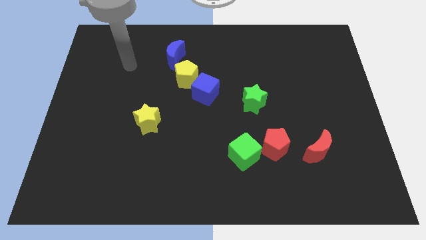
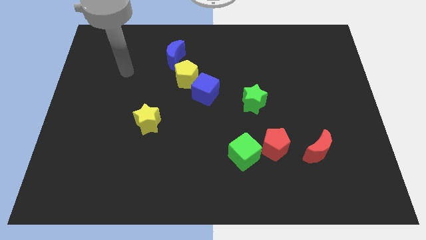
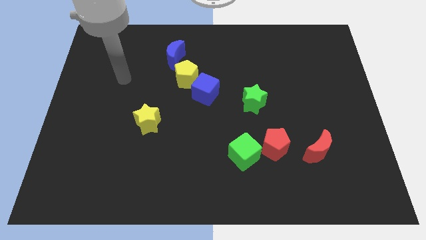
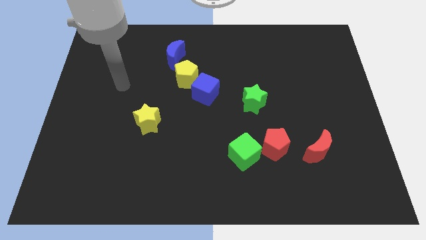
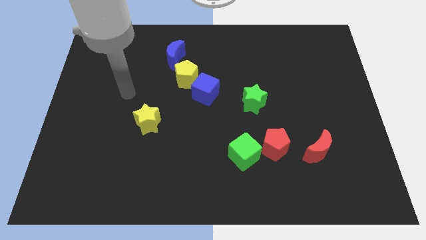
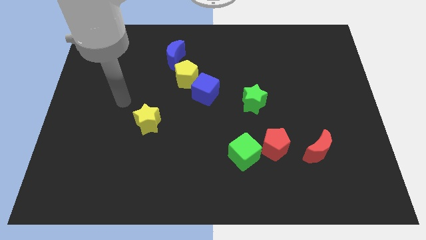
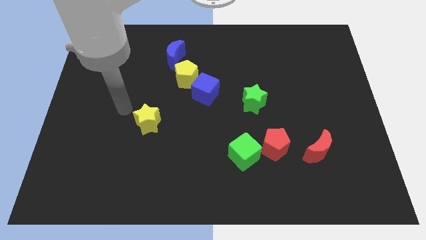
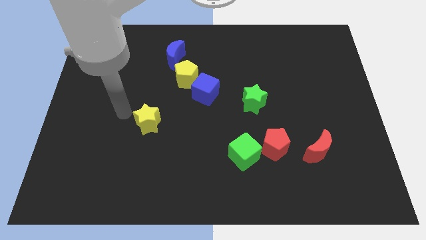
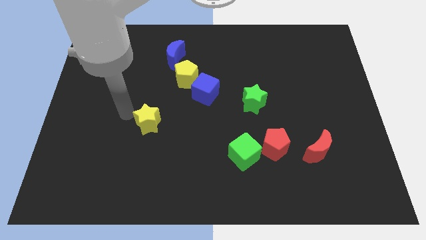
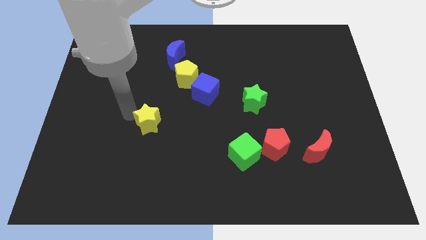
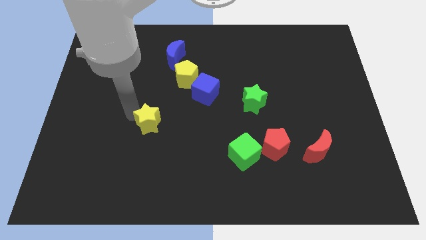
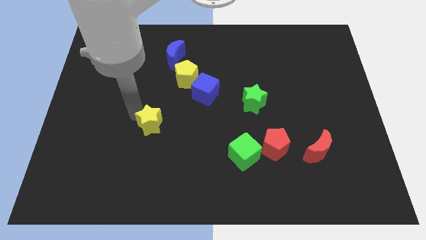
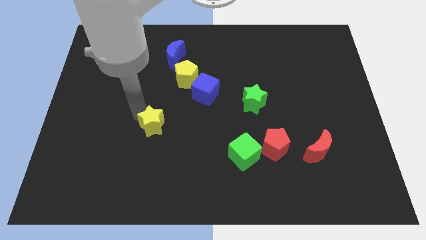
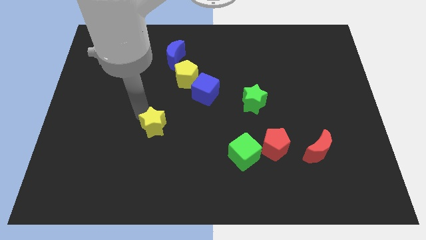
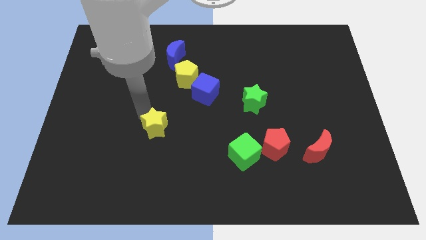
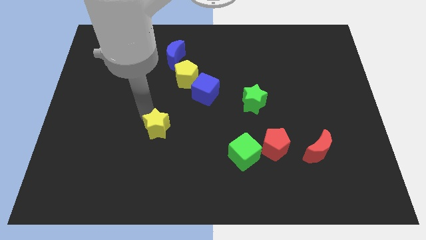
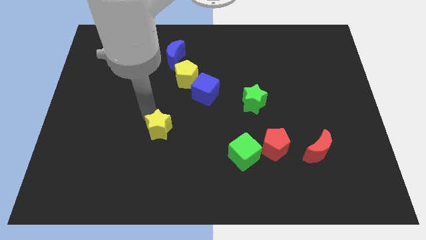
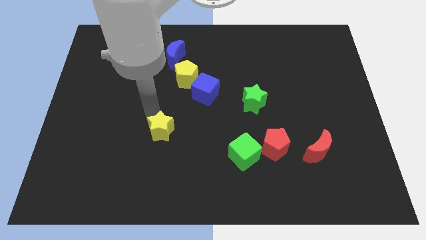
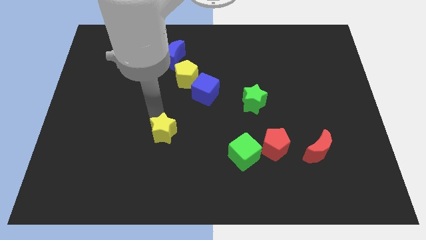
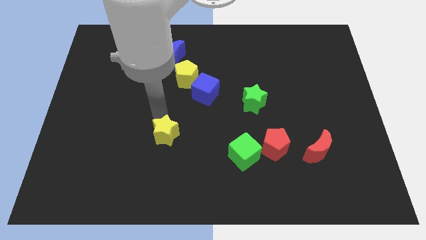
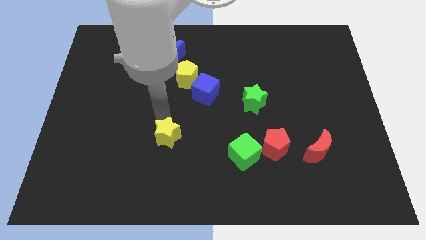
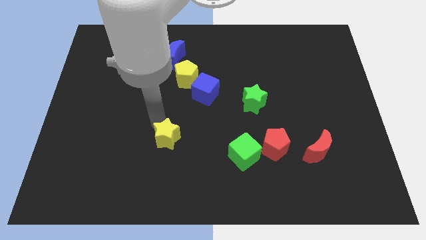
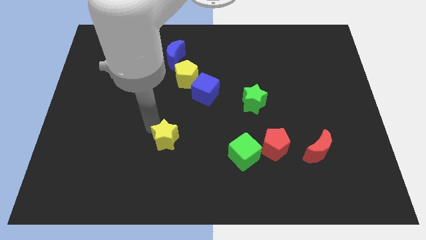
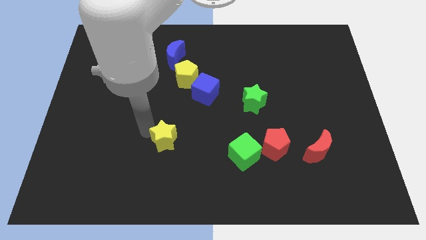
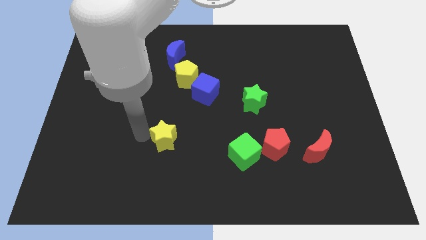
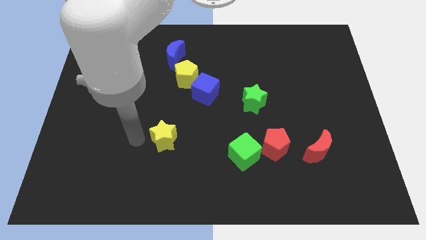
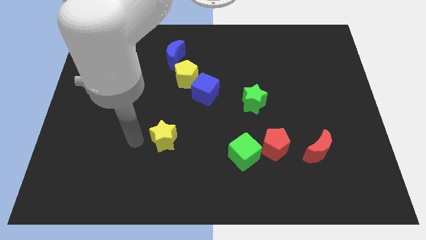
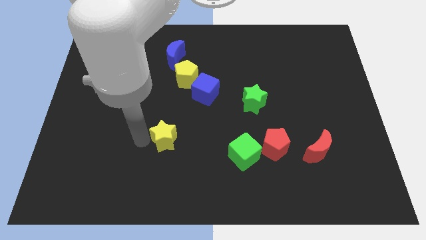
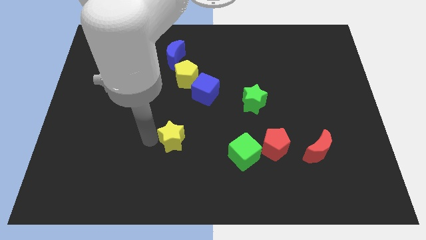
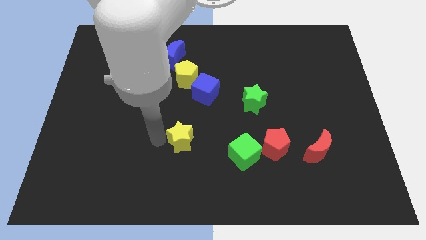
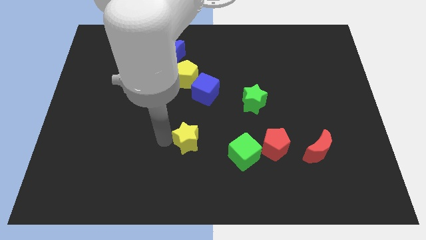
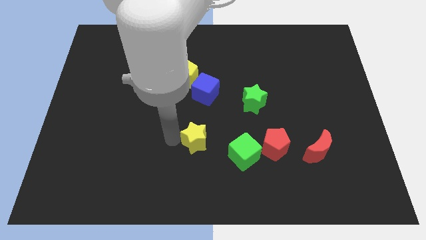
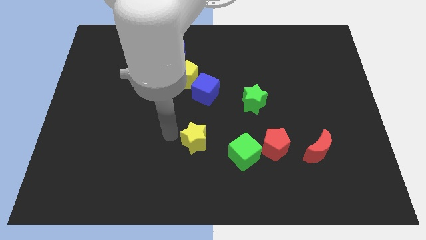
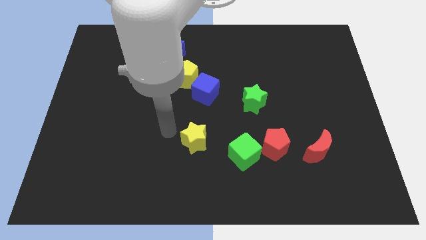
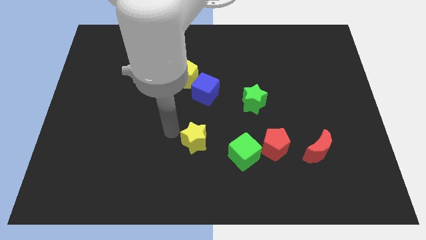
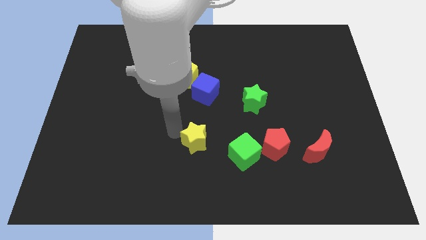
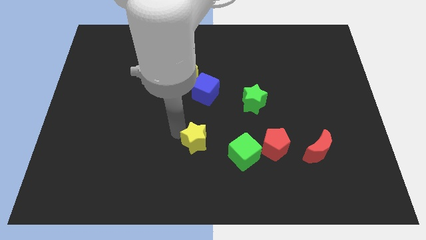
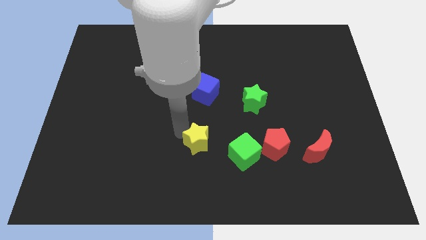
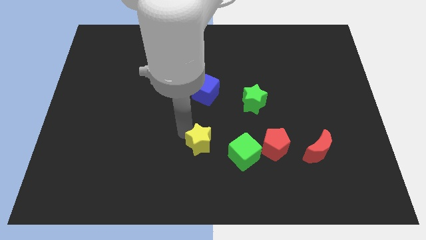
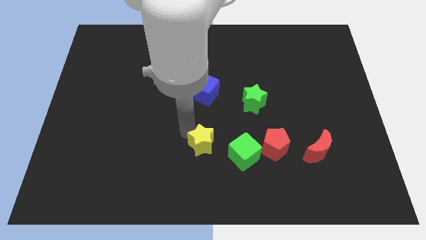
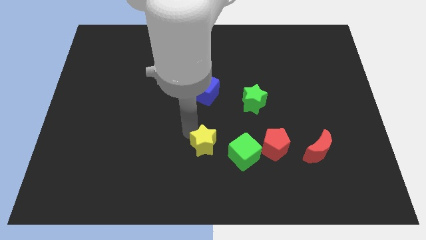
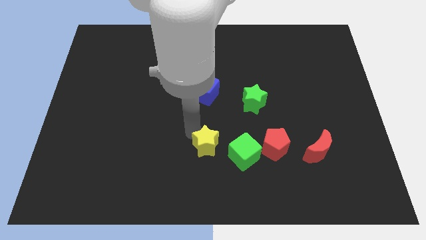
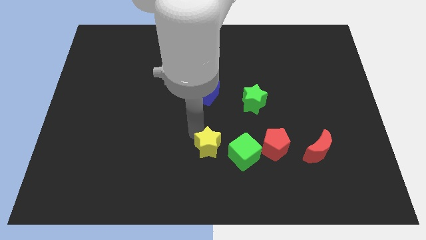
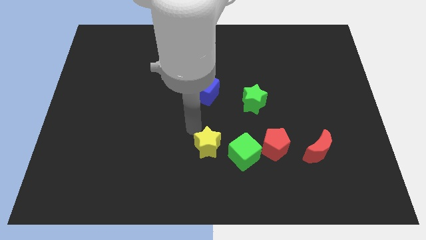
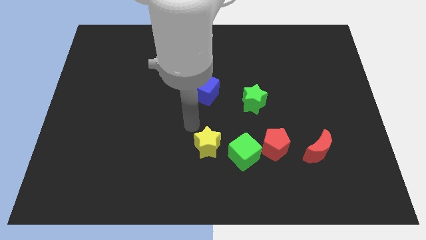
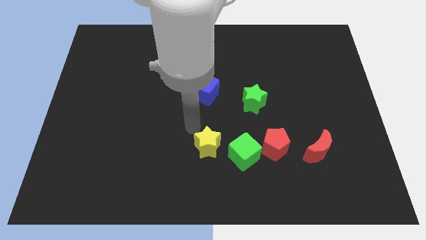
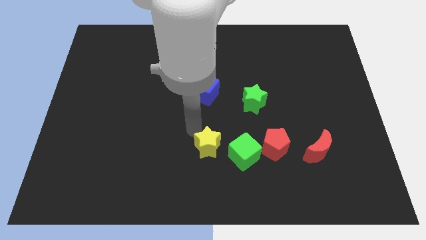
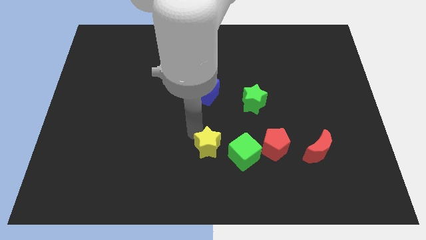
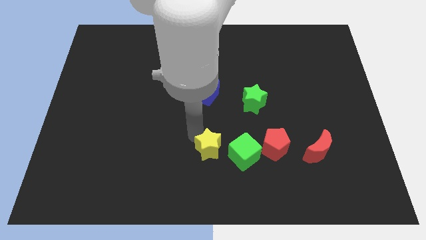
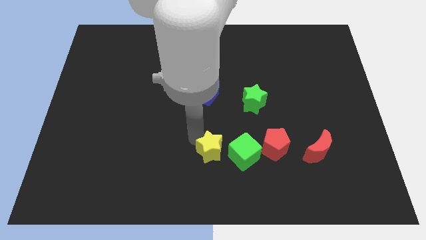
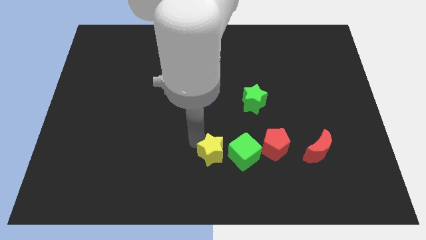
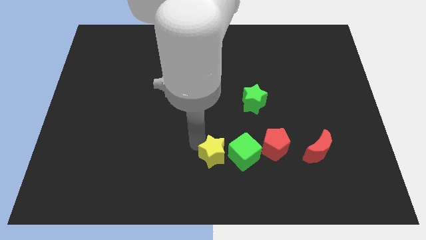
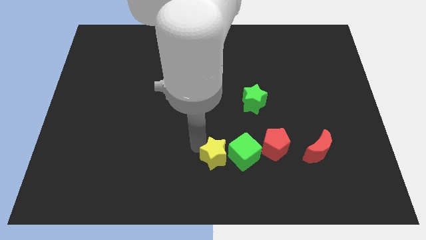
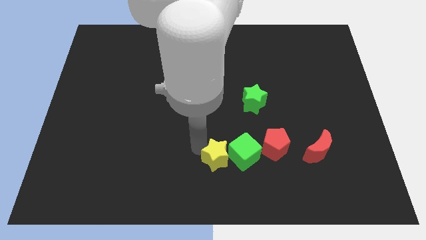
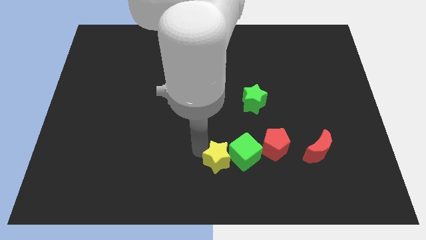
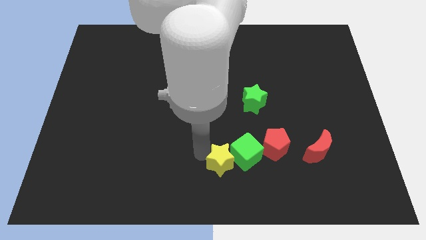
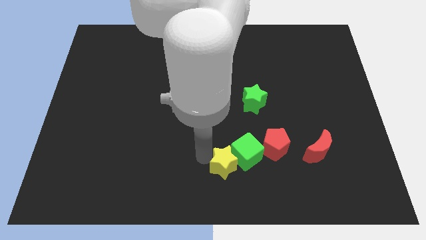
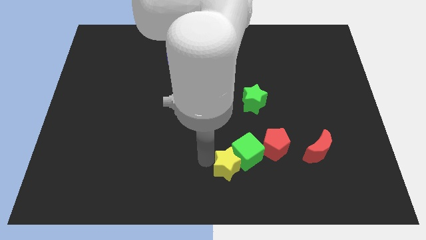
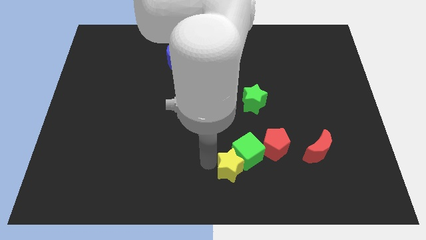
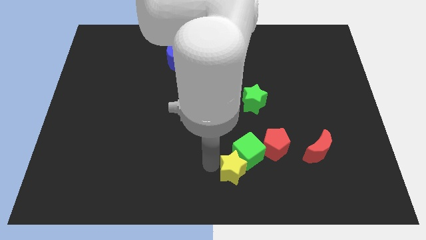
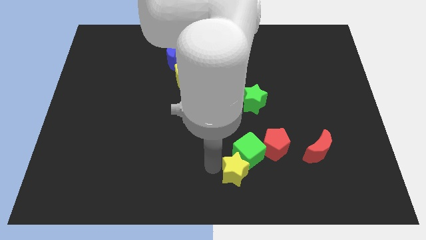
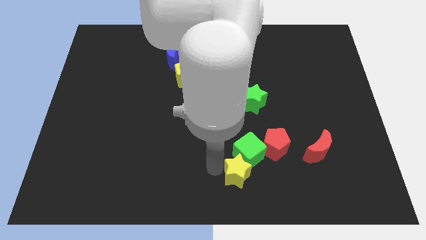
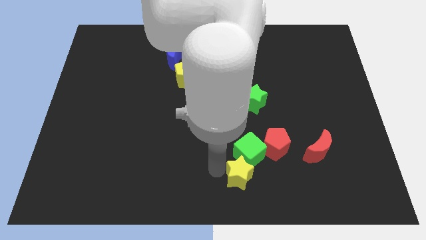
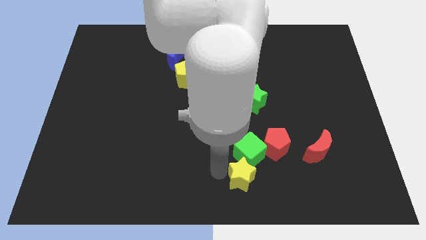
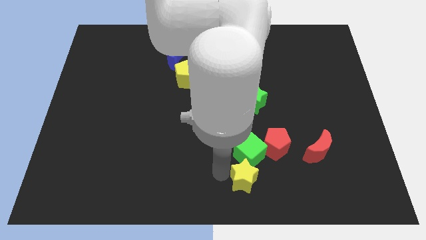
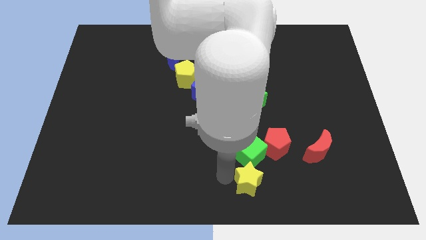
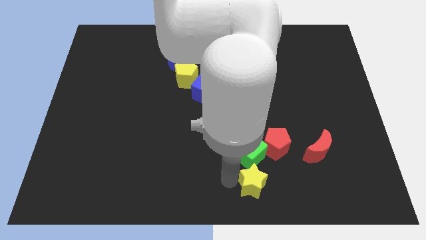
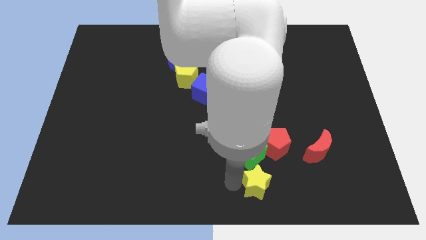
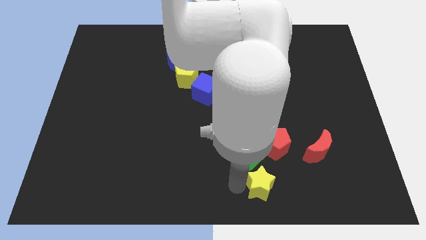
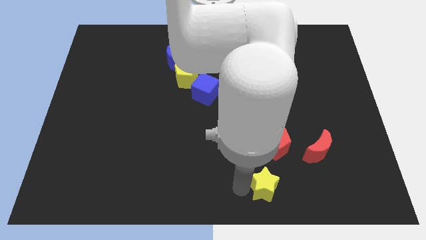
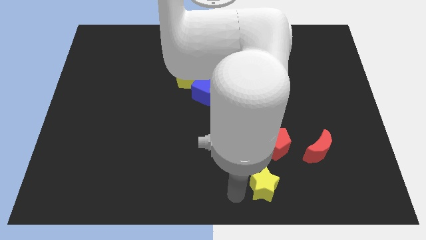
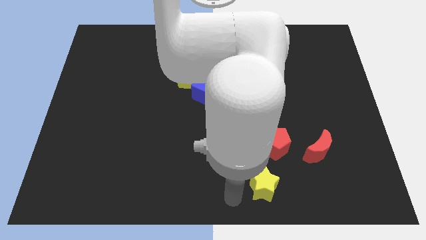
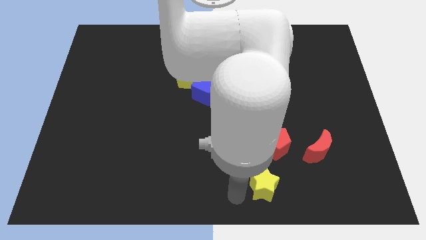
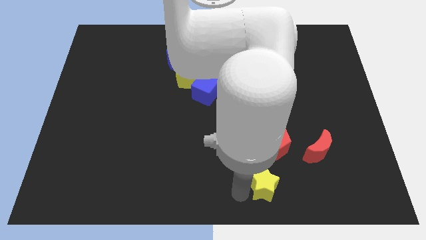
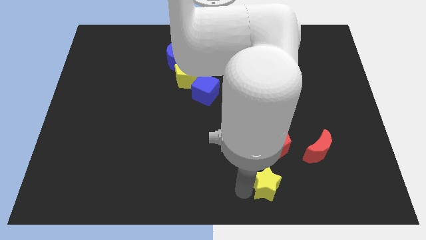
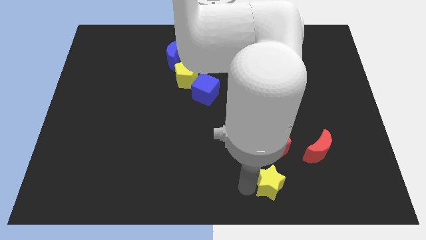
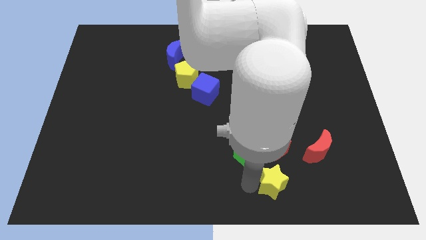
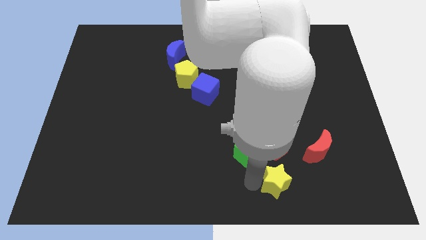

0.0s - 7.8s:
put the yellow star to the bottom left of the red moon
